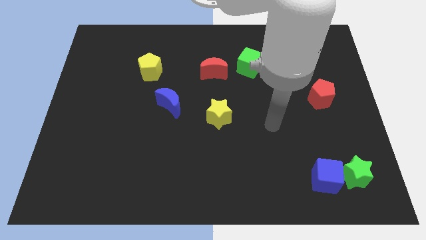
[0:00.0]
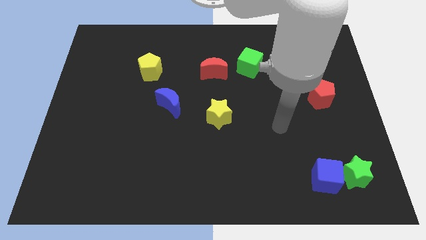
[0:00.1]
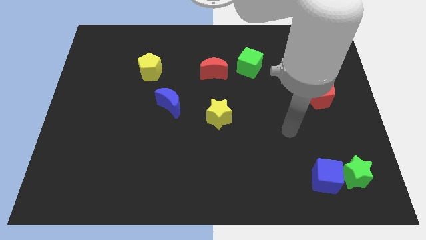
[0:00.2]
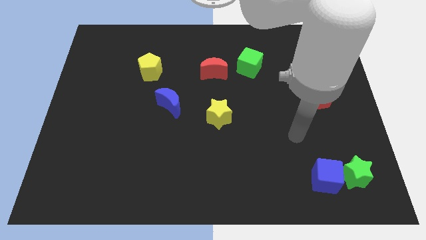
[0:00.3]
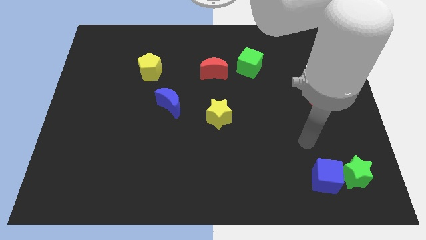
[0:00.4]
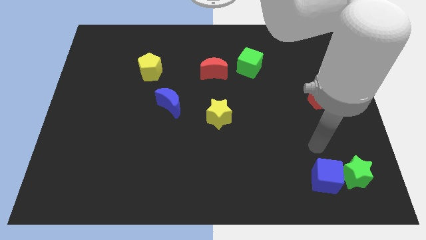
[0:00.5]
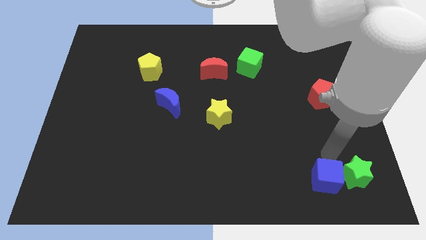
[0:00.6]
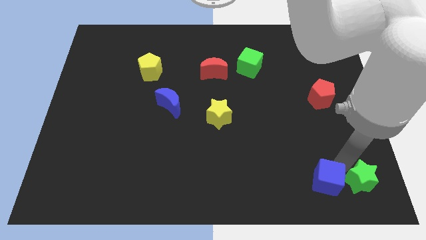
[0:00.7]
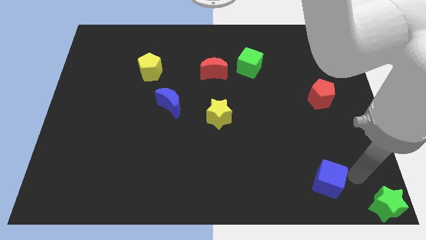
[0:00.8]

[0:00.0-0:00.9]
pull the blue cube apart from the green star

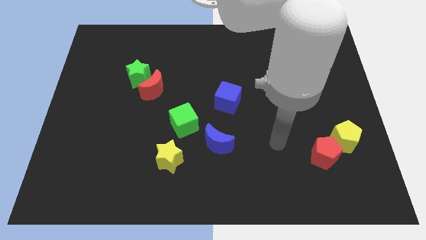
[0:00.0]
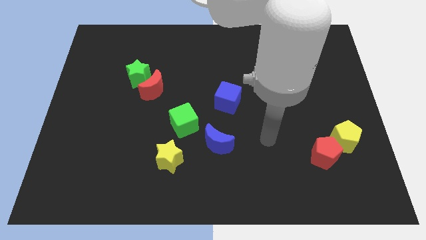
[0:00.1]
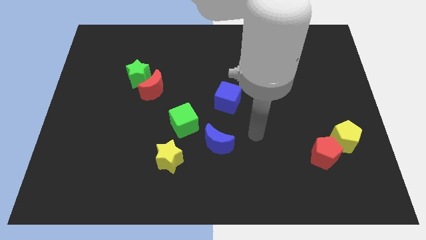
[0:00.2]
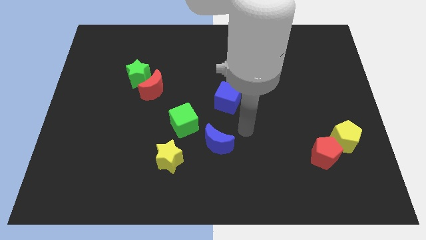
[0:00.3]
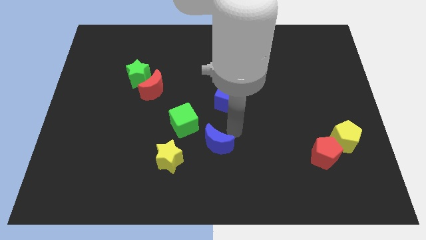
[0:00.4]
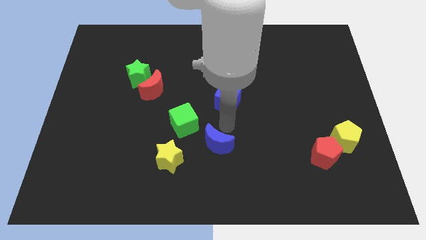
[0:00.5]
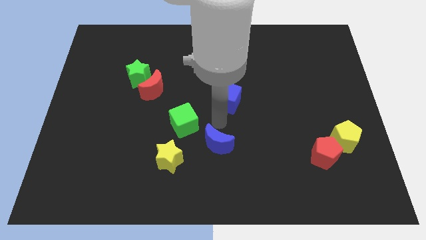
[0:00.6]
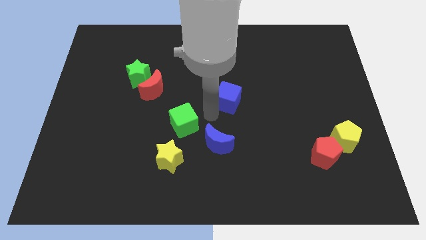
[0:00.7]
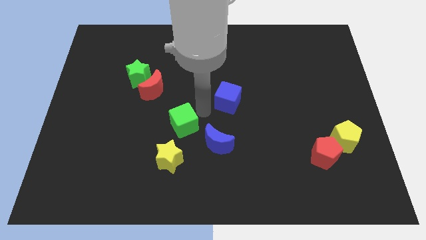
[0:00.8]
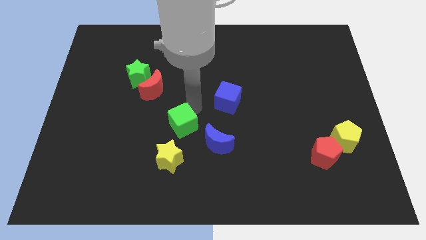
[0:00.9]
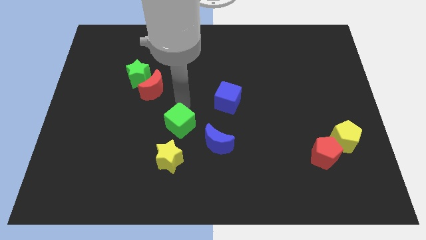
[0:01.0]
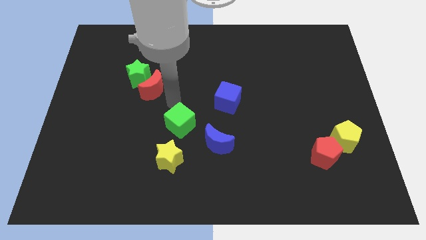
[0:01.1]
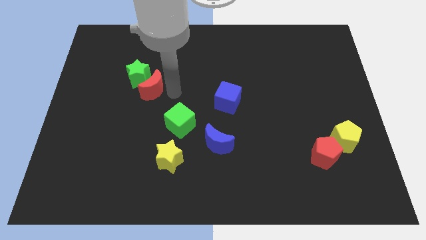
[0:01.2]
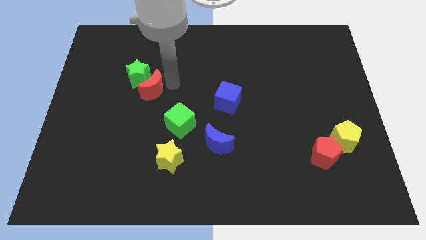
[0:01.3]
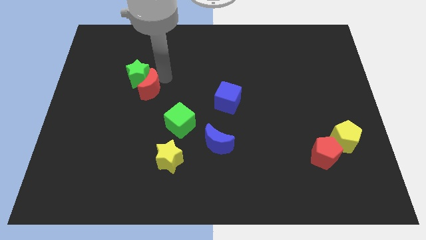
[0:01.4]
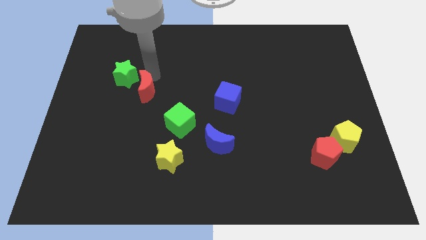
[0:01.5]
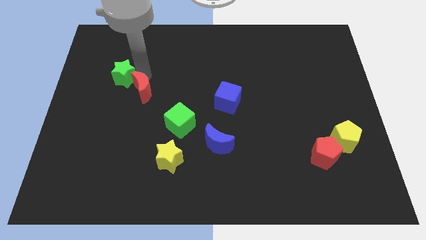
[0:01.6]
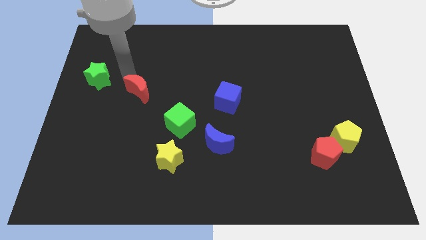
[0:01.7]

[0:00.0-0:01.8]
pull the red moon apart from the green star

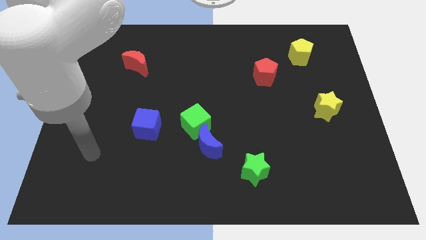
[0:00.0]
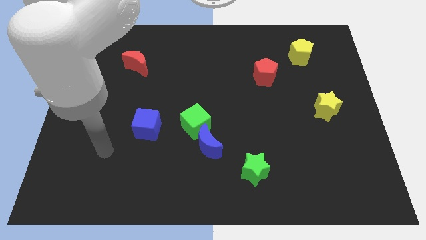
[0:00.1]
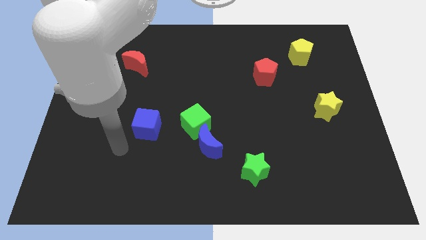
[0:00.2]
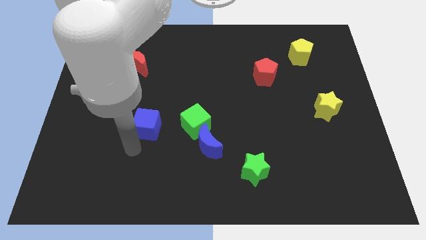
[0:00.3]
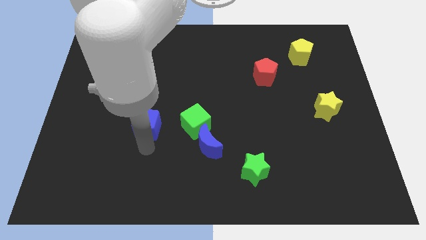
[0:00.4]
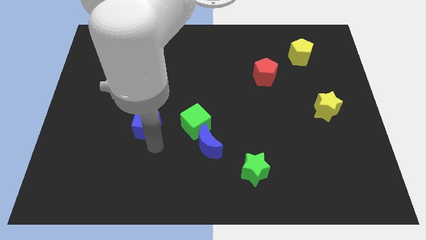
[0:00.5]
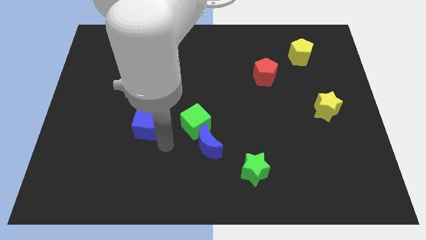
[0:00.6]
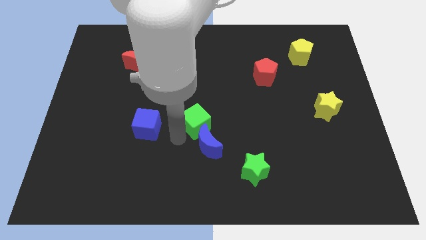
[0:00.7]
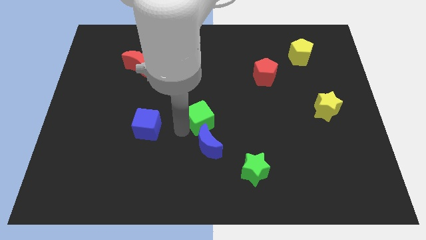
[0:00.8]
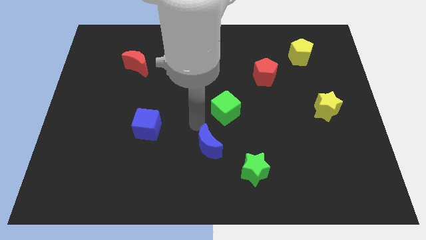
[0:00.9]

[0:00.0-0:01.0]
move the blue moon away from the green cube

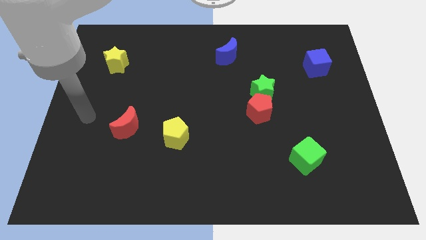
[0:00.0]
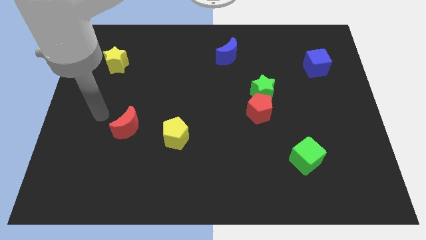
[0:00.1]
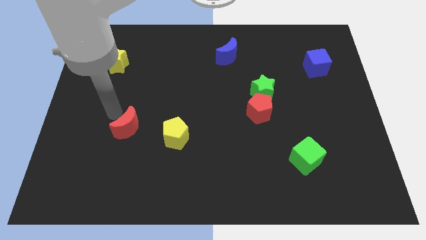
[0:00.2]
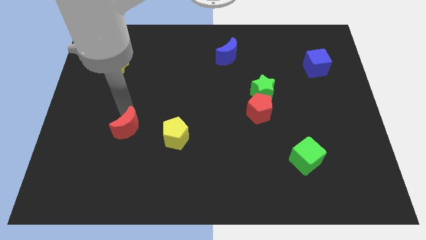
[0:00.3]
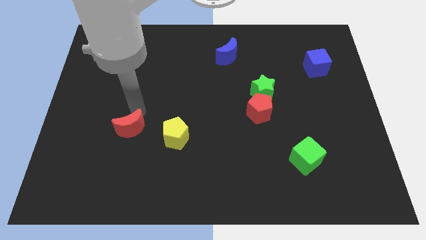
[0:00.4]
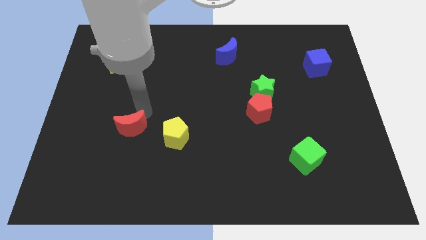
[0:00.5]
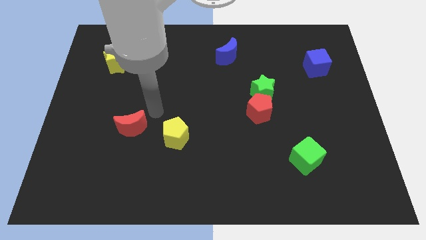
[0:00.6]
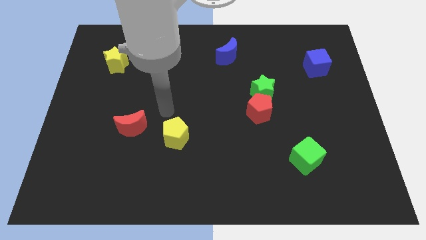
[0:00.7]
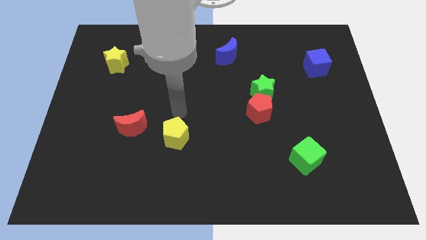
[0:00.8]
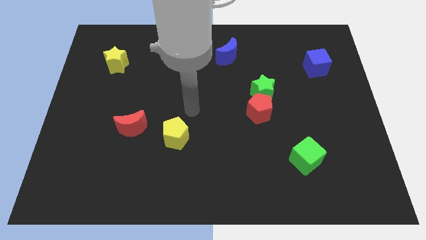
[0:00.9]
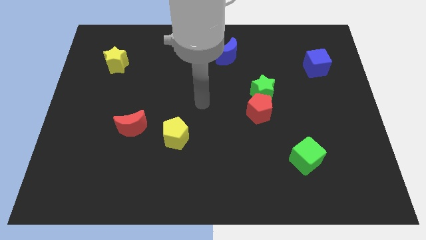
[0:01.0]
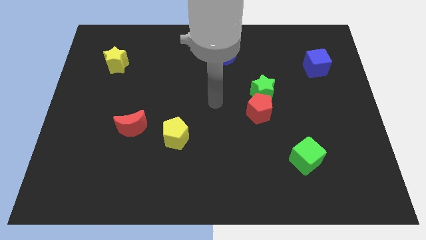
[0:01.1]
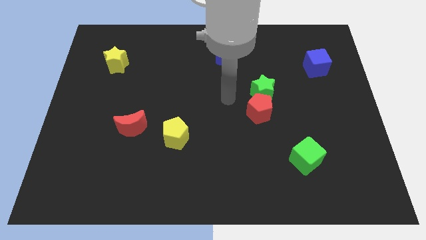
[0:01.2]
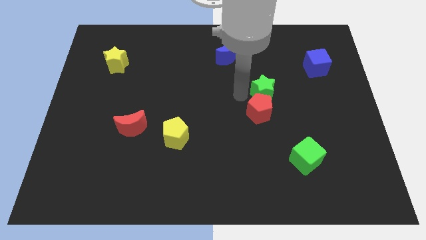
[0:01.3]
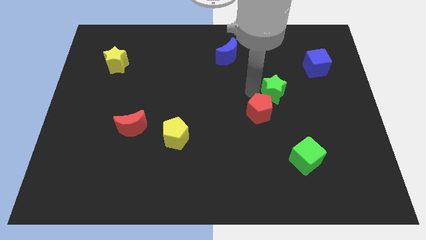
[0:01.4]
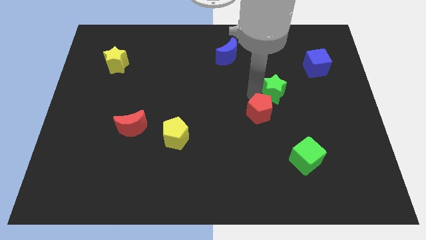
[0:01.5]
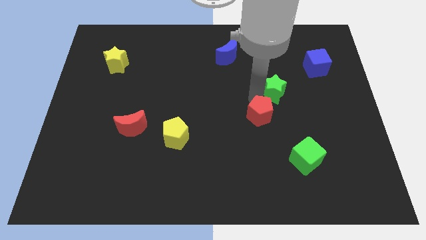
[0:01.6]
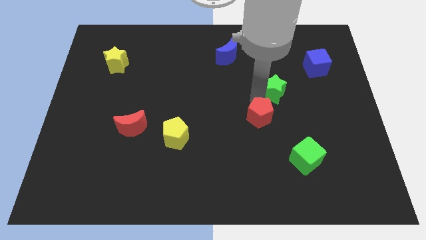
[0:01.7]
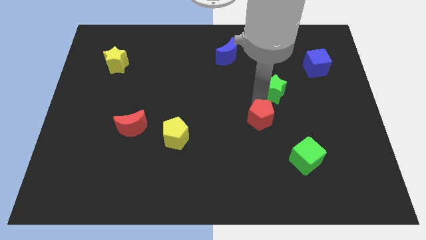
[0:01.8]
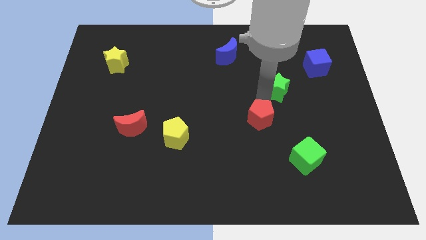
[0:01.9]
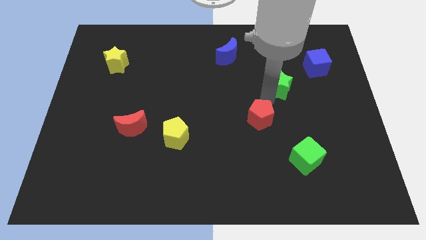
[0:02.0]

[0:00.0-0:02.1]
separate the red pentagon from the green star

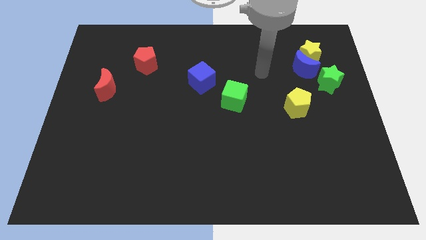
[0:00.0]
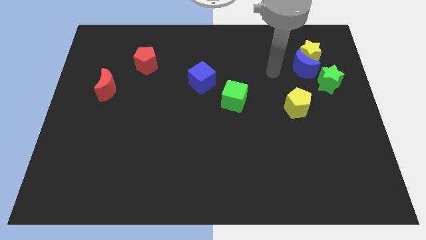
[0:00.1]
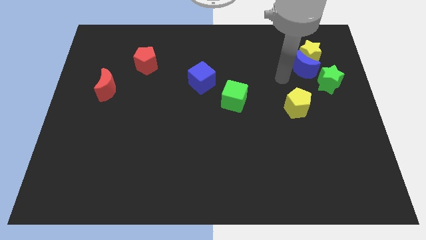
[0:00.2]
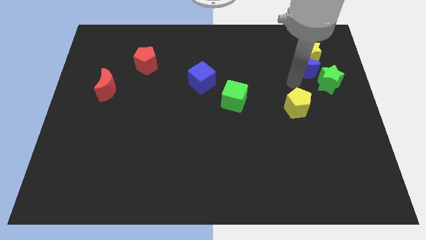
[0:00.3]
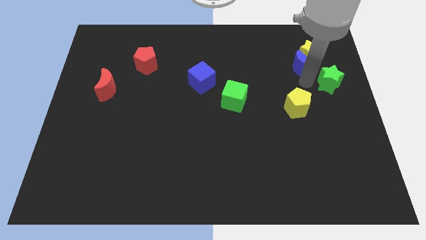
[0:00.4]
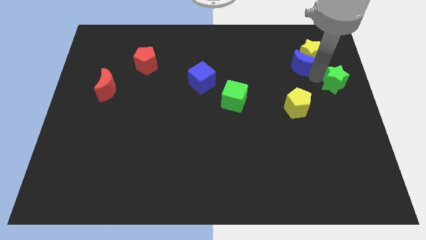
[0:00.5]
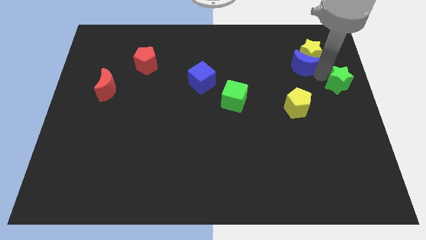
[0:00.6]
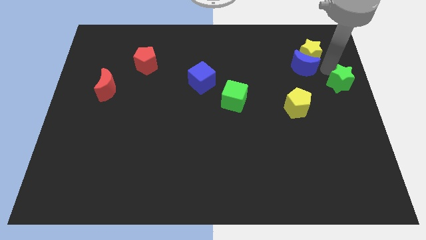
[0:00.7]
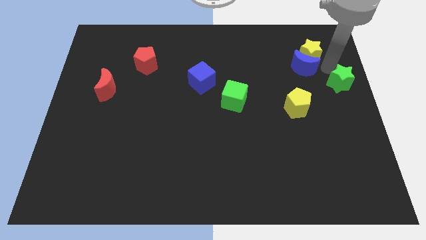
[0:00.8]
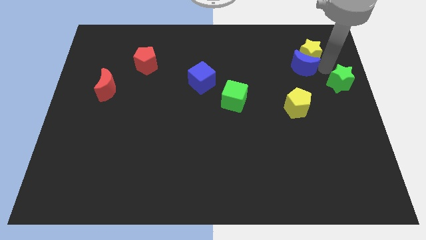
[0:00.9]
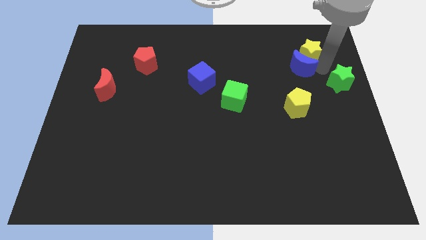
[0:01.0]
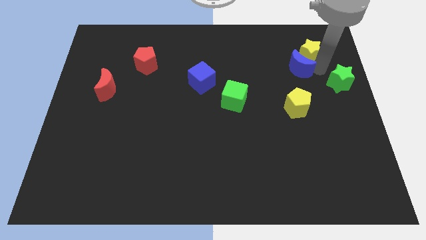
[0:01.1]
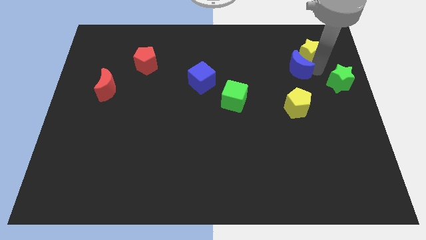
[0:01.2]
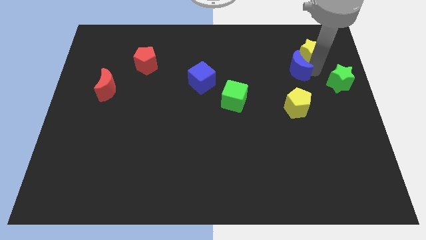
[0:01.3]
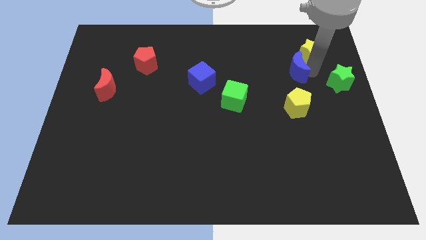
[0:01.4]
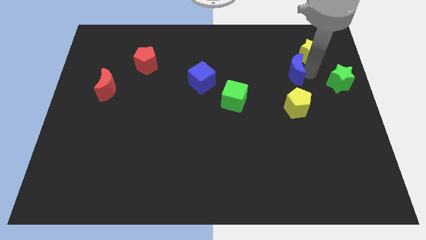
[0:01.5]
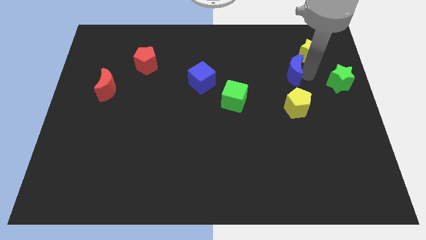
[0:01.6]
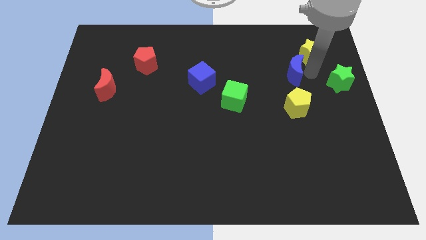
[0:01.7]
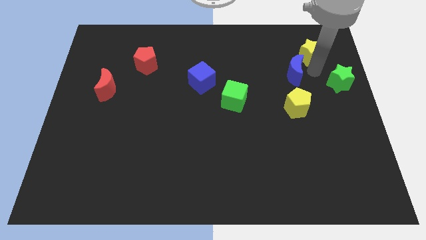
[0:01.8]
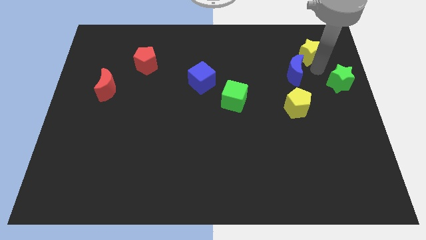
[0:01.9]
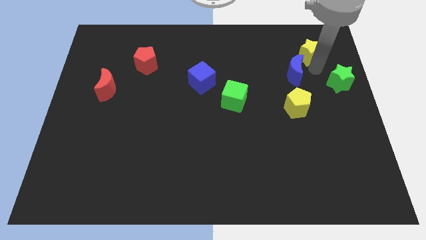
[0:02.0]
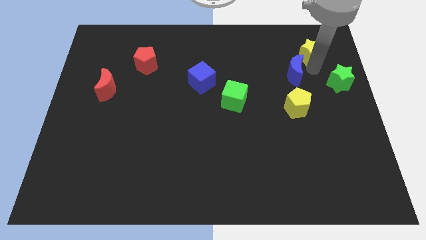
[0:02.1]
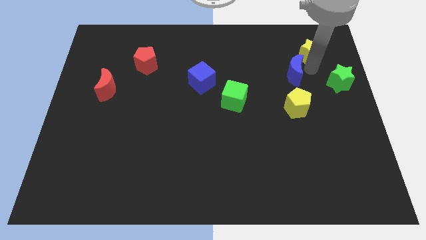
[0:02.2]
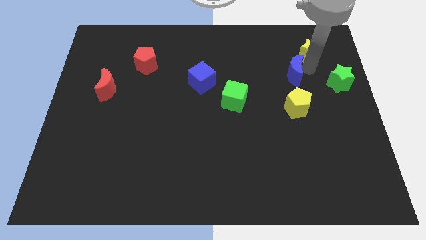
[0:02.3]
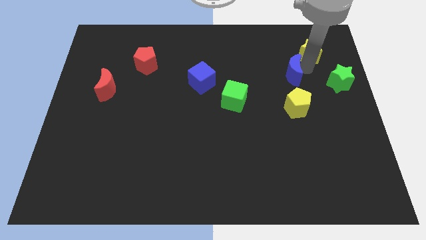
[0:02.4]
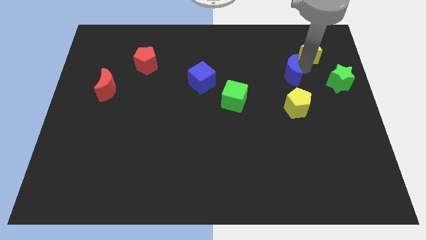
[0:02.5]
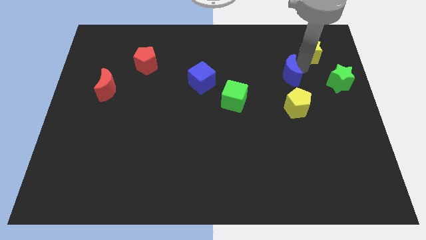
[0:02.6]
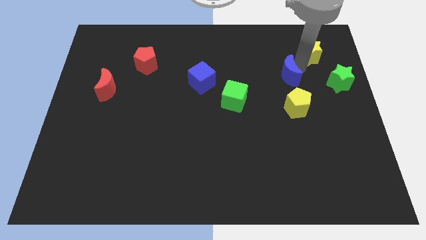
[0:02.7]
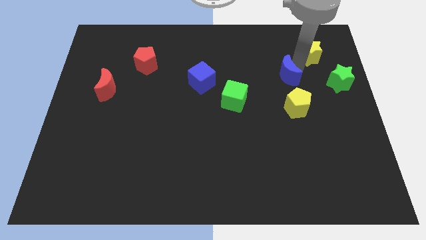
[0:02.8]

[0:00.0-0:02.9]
separate the blue moon from the yellow star and green star

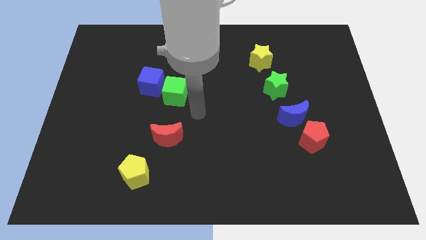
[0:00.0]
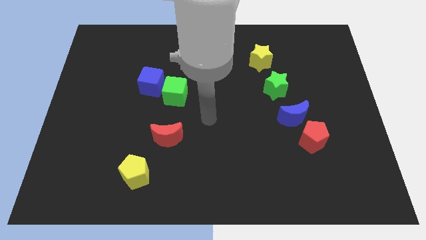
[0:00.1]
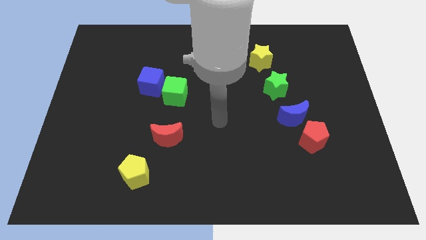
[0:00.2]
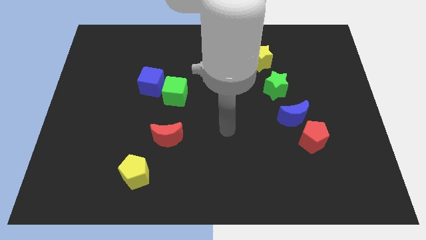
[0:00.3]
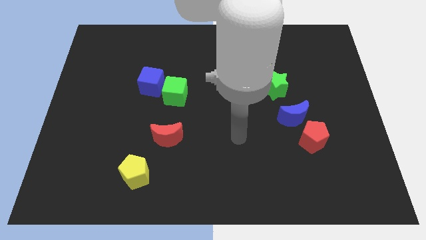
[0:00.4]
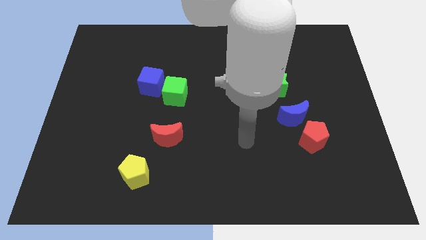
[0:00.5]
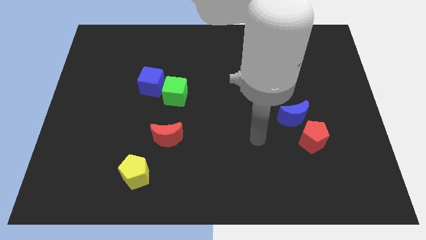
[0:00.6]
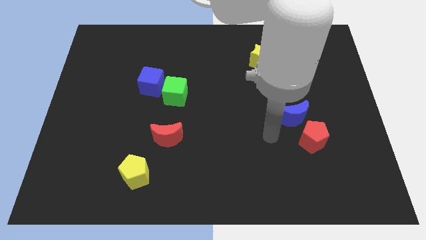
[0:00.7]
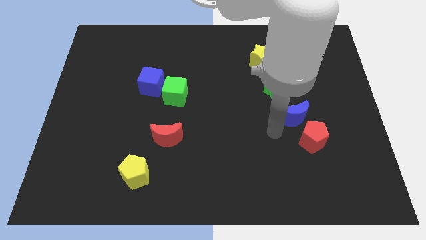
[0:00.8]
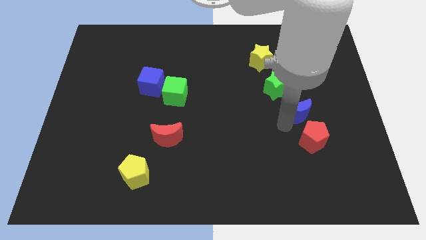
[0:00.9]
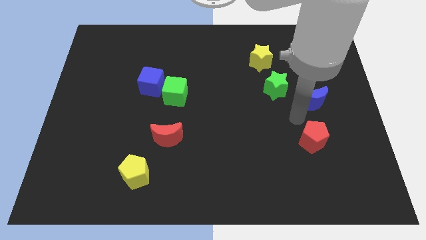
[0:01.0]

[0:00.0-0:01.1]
separate the red pentagon from the blue moon